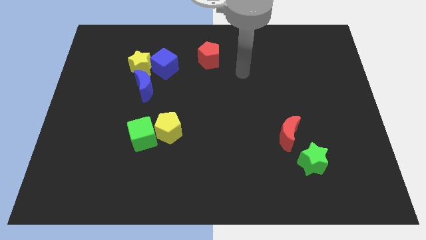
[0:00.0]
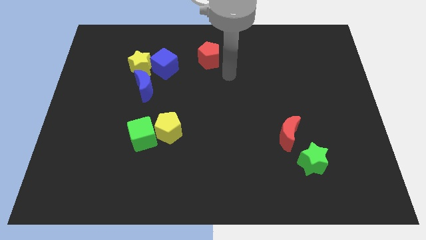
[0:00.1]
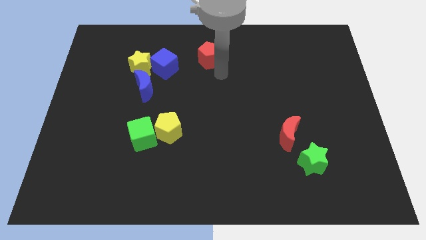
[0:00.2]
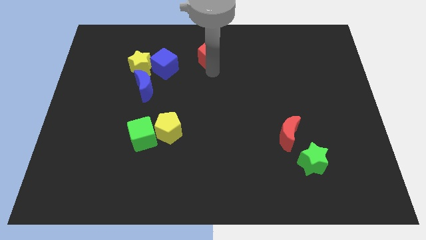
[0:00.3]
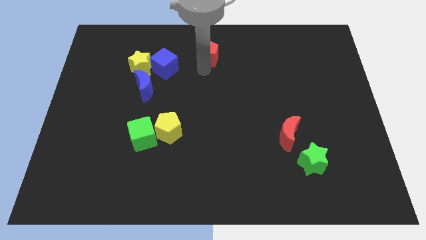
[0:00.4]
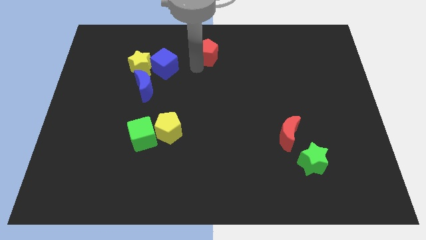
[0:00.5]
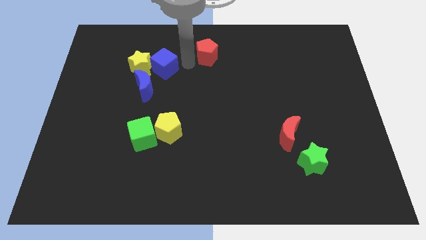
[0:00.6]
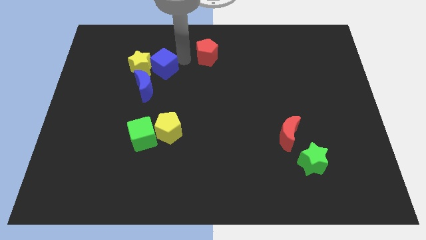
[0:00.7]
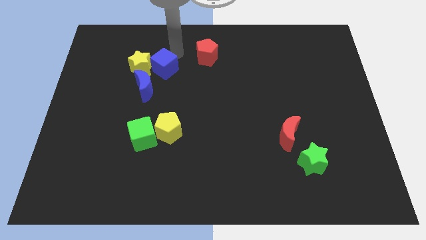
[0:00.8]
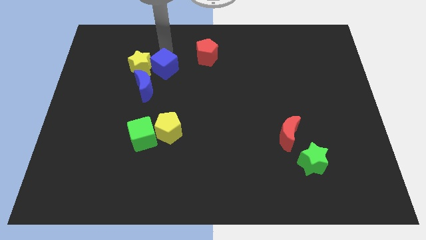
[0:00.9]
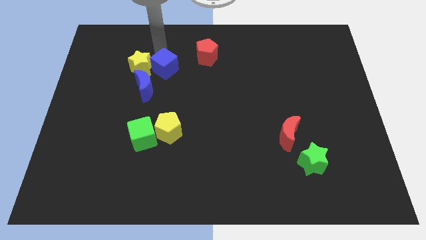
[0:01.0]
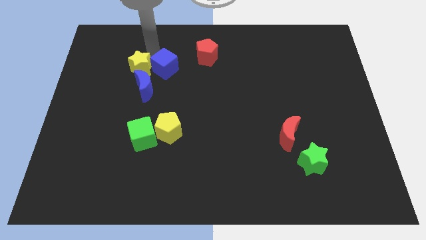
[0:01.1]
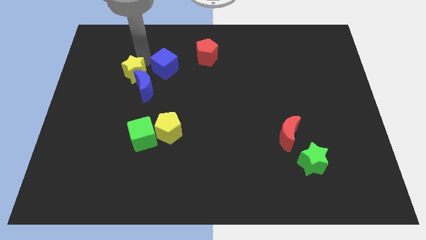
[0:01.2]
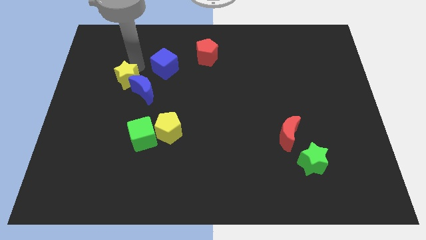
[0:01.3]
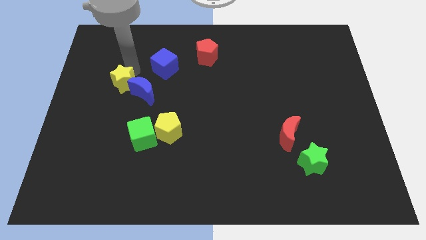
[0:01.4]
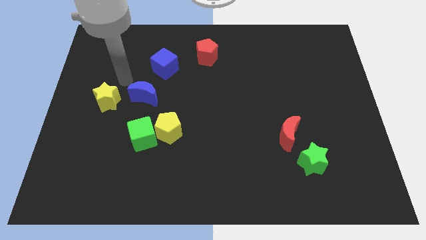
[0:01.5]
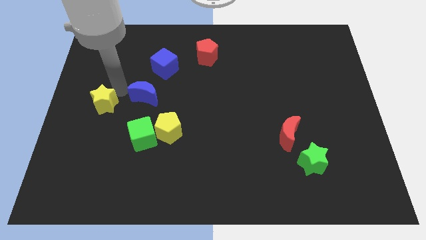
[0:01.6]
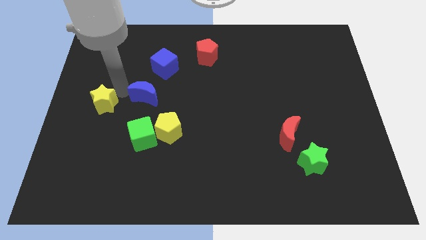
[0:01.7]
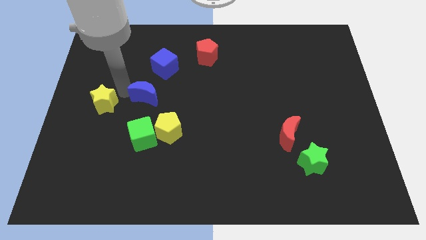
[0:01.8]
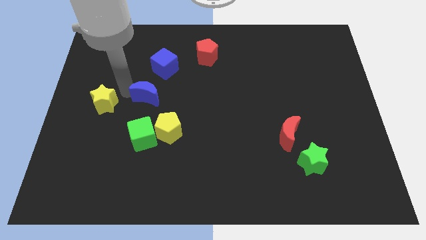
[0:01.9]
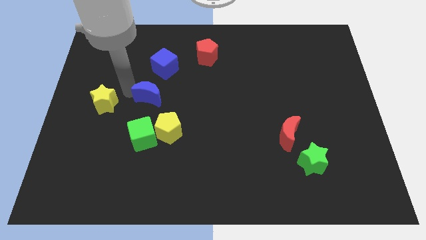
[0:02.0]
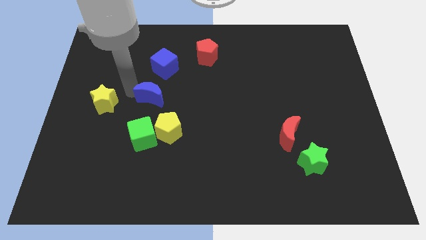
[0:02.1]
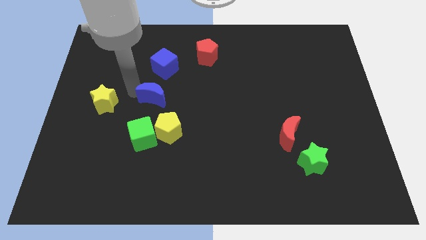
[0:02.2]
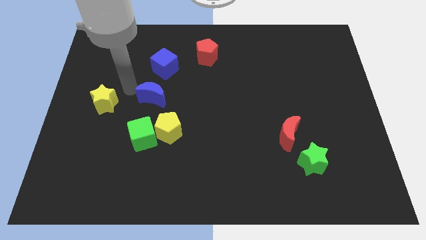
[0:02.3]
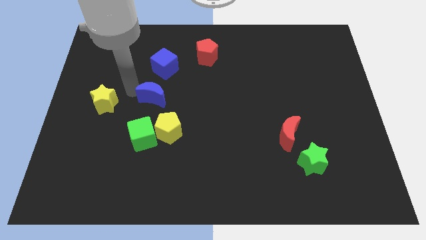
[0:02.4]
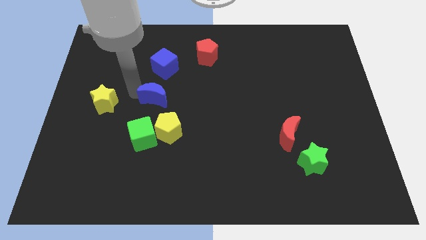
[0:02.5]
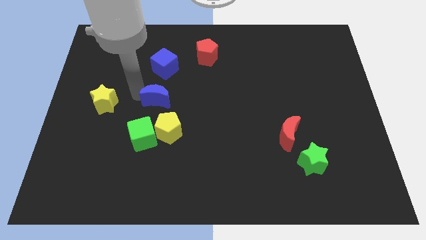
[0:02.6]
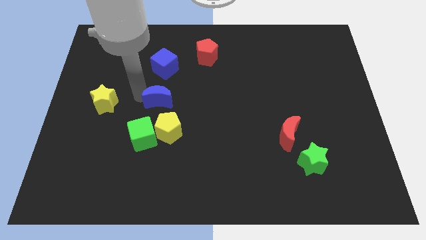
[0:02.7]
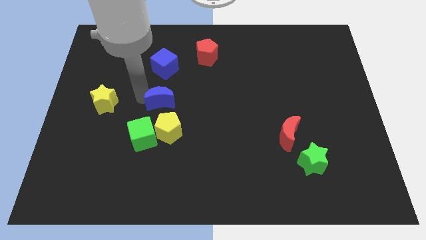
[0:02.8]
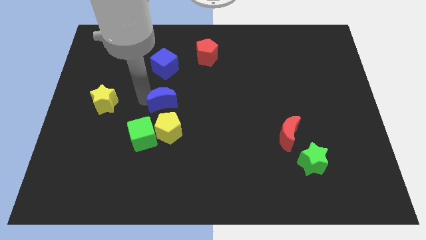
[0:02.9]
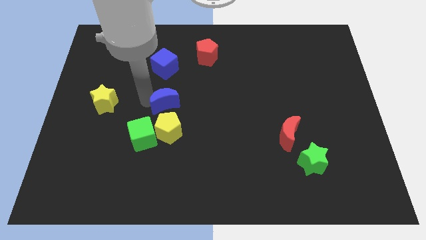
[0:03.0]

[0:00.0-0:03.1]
slide the blue moon a bit diagonally down and right

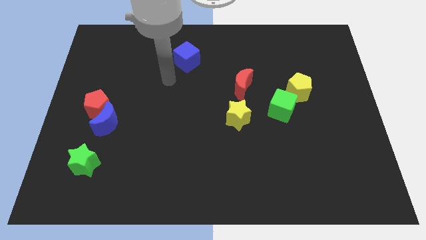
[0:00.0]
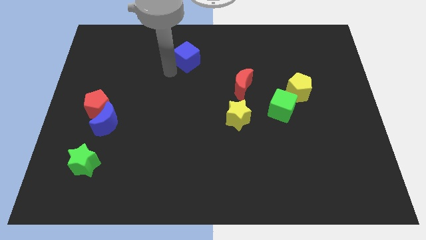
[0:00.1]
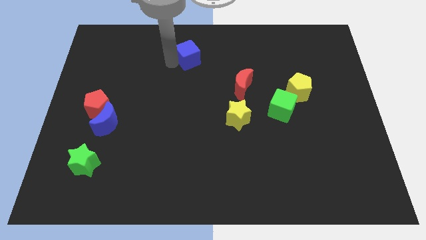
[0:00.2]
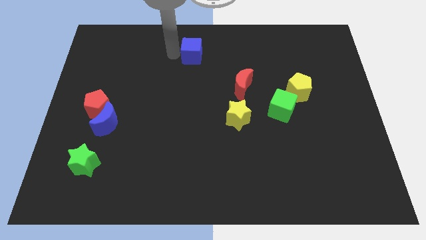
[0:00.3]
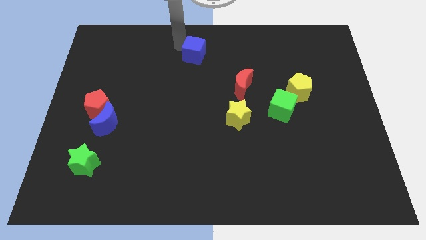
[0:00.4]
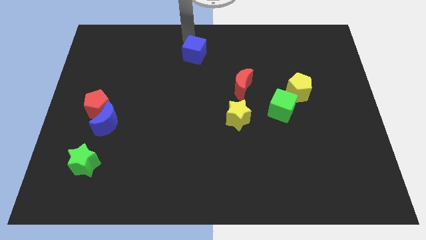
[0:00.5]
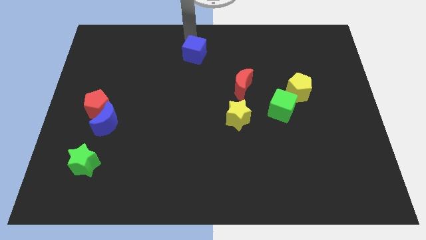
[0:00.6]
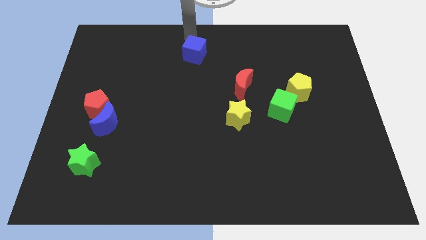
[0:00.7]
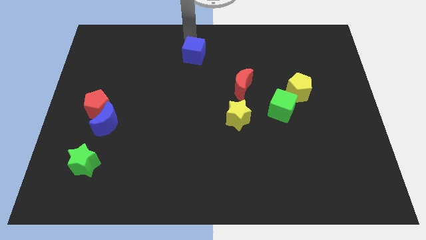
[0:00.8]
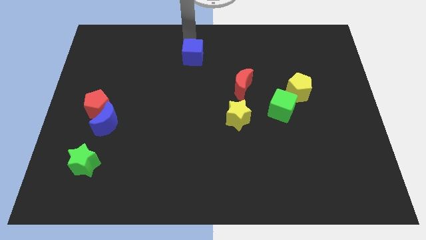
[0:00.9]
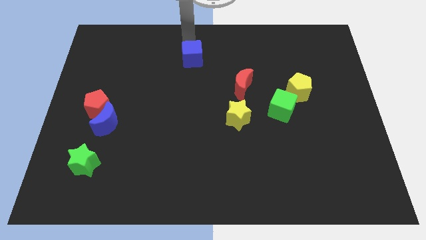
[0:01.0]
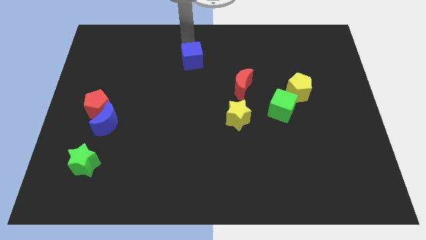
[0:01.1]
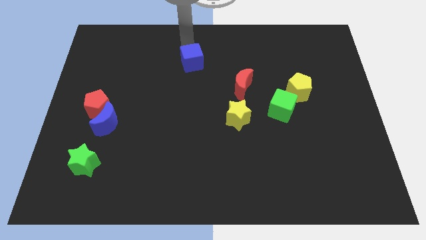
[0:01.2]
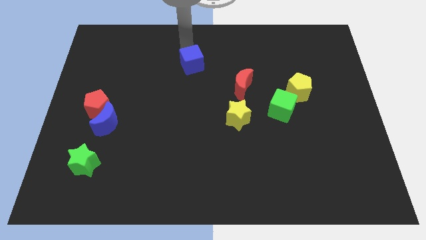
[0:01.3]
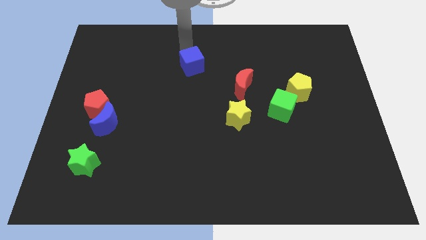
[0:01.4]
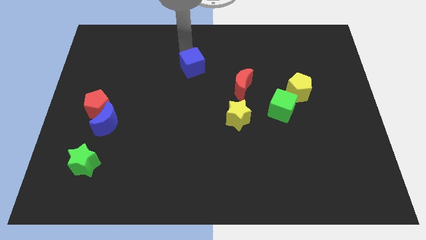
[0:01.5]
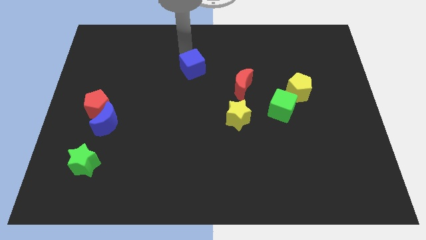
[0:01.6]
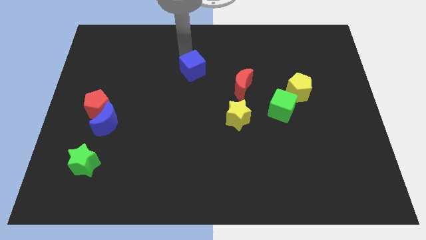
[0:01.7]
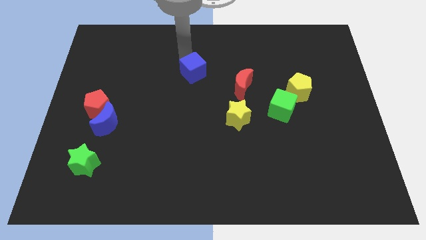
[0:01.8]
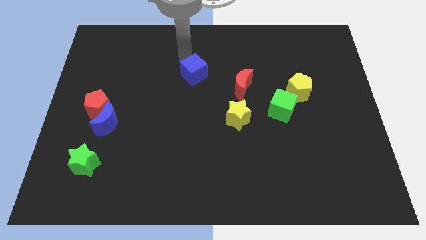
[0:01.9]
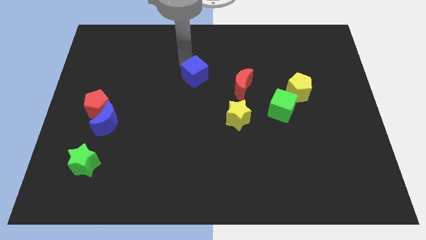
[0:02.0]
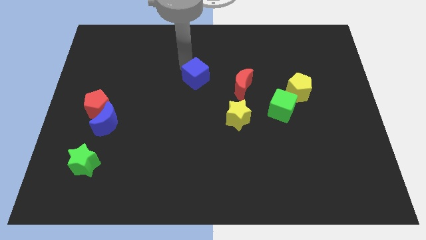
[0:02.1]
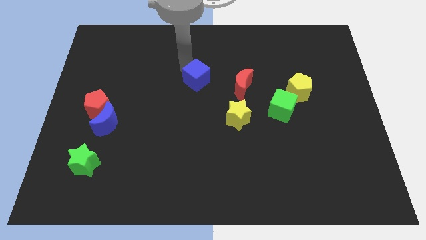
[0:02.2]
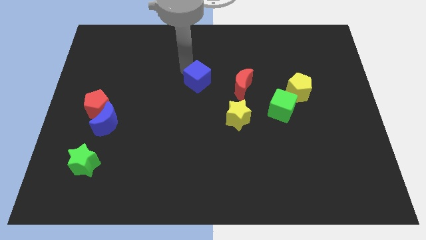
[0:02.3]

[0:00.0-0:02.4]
push the blue cube downwards and to the right slightly

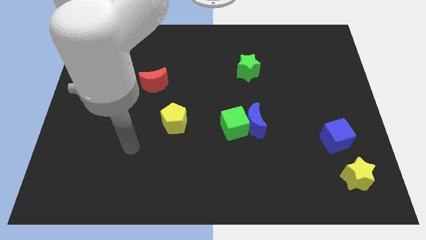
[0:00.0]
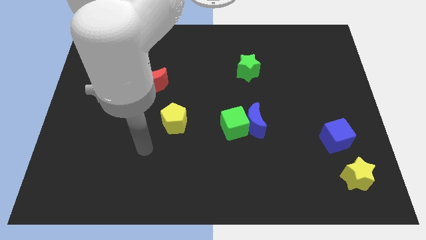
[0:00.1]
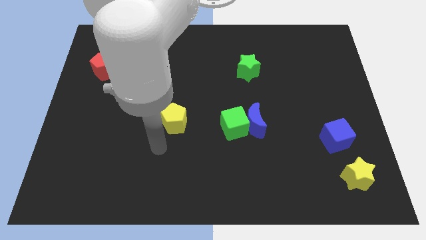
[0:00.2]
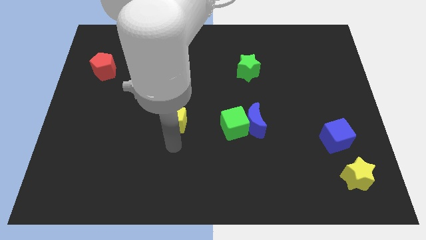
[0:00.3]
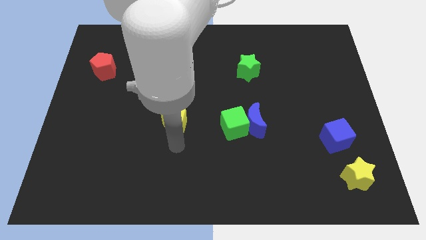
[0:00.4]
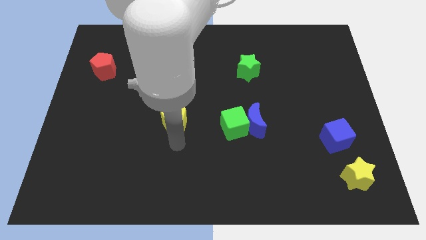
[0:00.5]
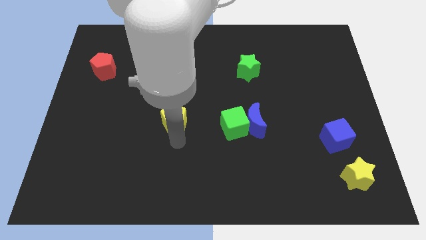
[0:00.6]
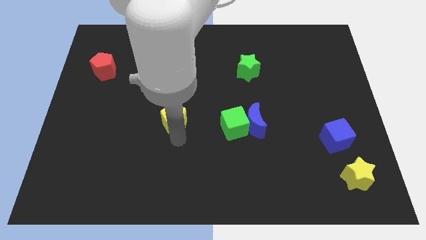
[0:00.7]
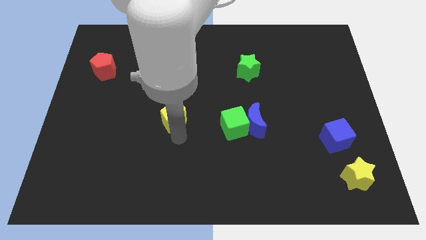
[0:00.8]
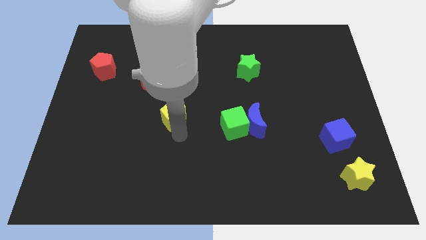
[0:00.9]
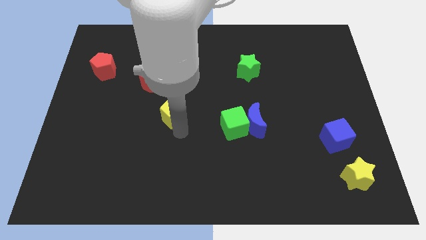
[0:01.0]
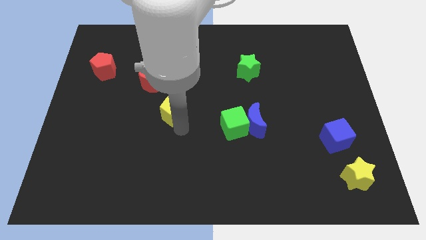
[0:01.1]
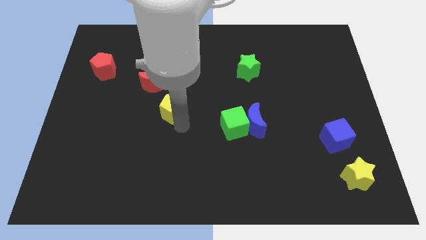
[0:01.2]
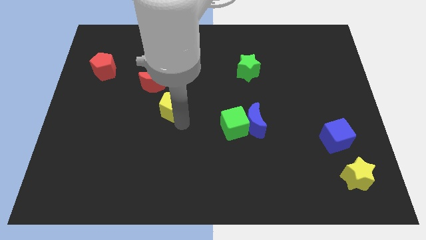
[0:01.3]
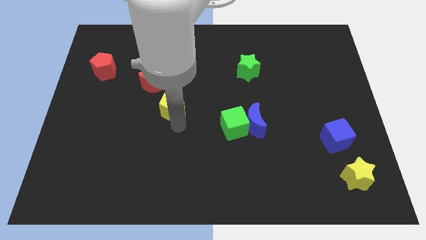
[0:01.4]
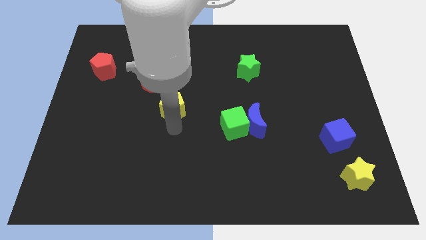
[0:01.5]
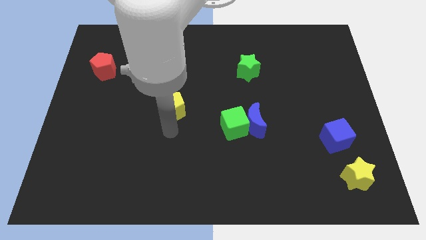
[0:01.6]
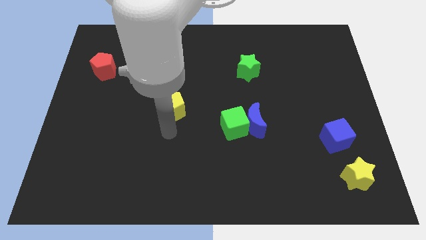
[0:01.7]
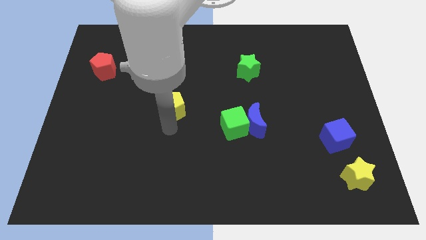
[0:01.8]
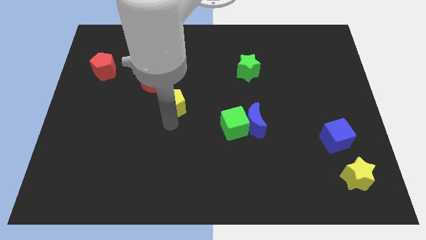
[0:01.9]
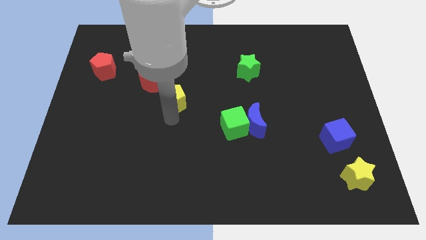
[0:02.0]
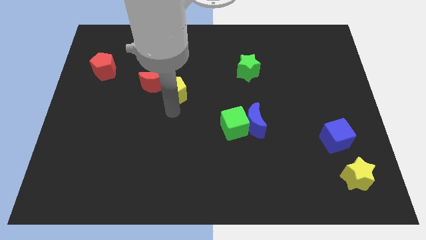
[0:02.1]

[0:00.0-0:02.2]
slide the yellow pentagon slightly upwards

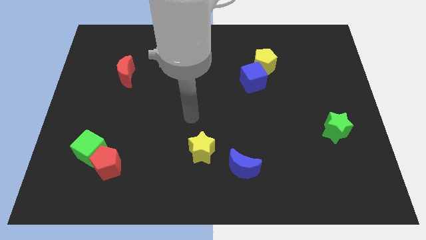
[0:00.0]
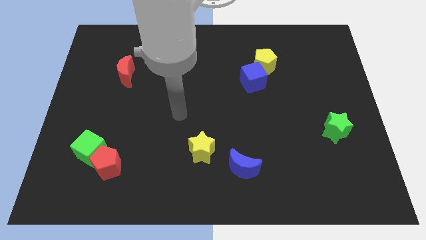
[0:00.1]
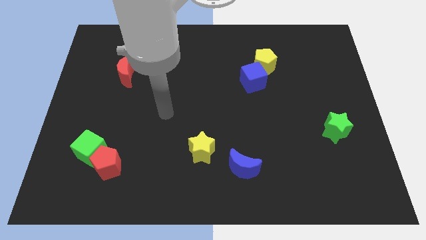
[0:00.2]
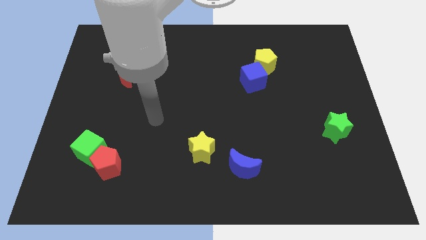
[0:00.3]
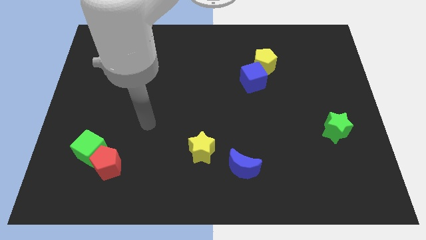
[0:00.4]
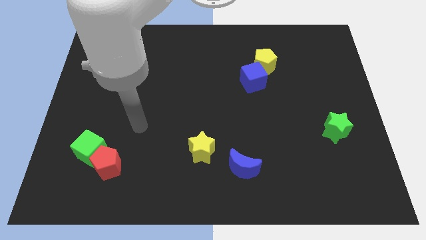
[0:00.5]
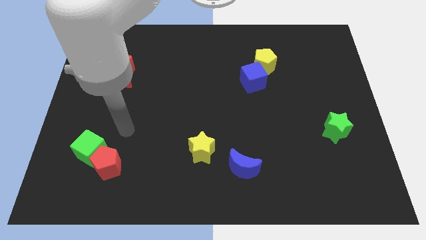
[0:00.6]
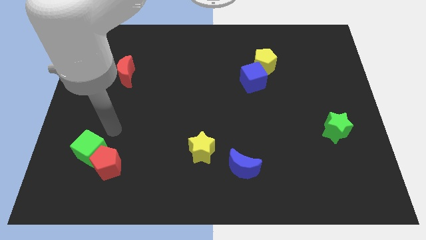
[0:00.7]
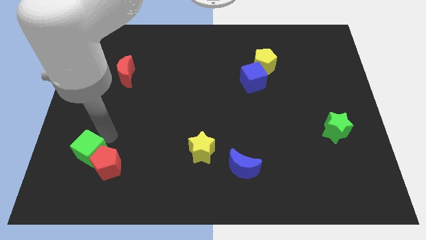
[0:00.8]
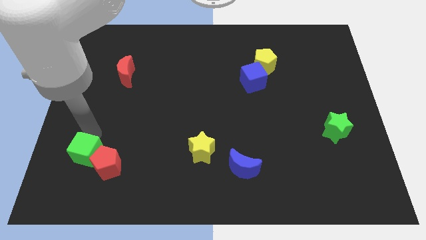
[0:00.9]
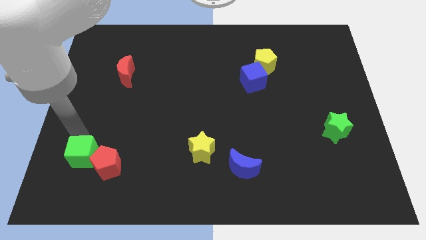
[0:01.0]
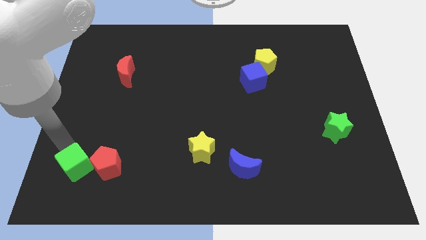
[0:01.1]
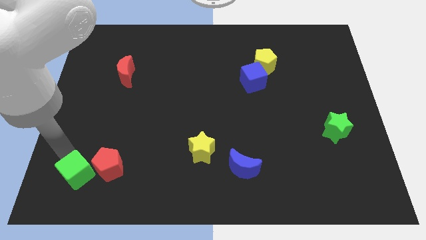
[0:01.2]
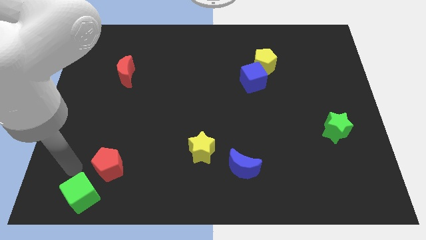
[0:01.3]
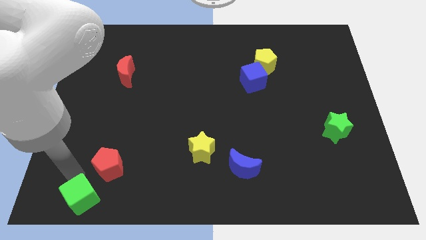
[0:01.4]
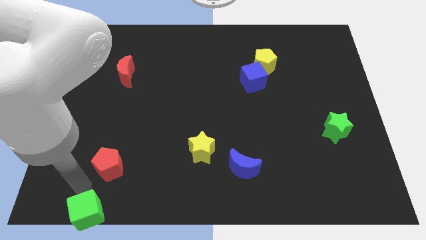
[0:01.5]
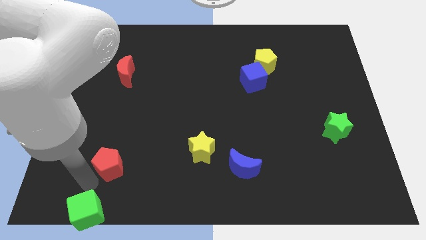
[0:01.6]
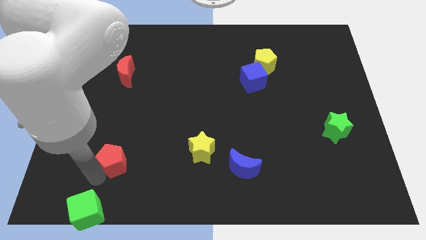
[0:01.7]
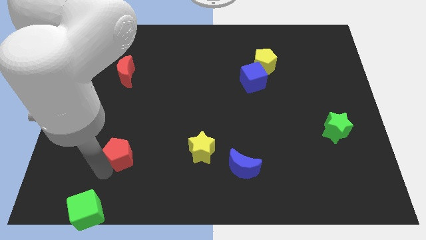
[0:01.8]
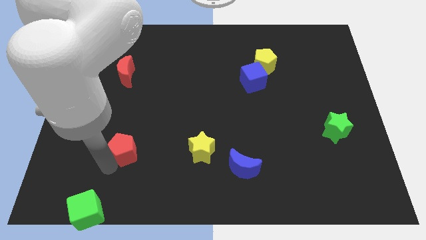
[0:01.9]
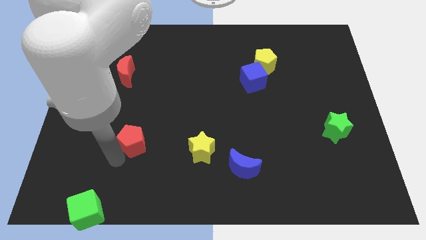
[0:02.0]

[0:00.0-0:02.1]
slightly push the red pentagon diagonally up and right
